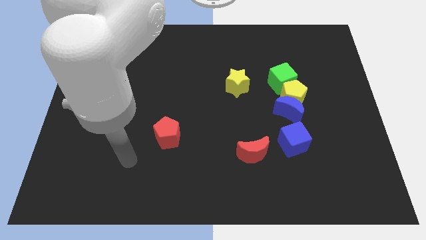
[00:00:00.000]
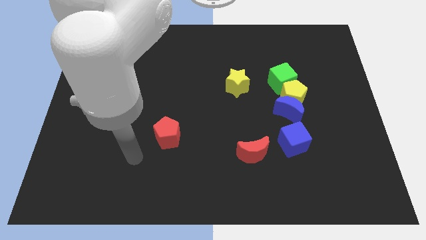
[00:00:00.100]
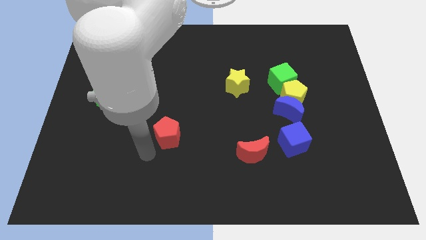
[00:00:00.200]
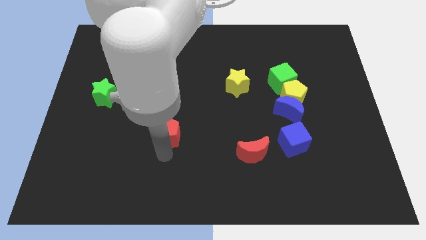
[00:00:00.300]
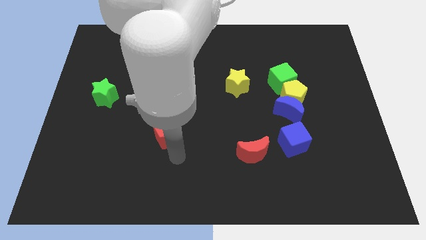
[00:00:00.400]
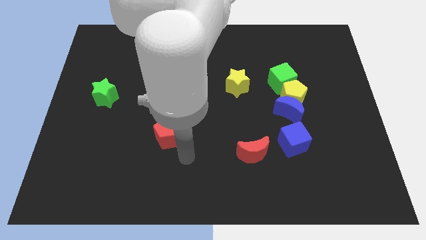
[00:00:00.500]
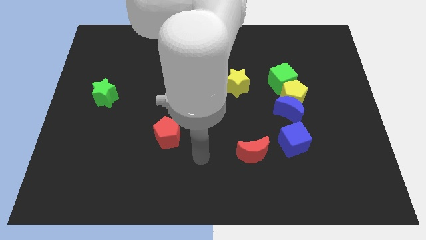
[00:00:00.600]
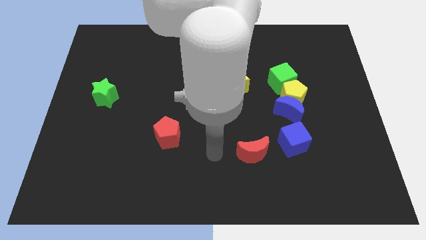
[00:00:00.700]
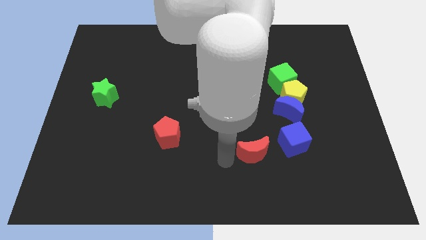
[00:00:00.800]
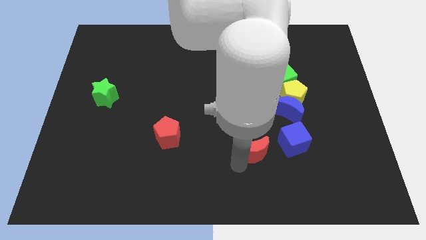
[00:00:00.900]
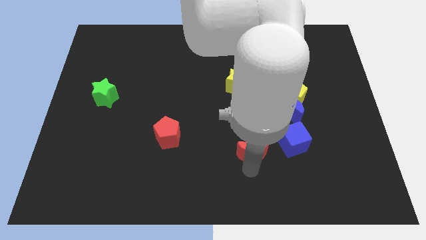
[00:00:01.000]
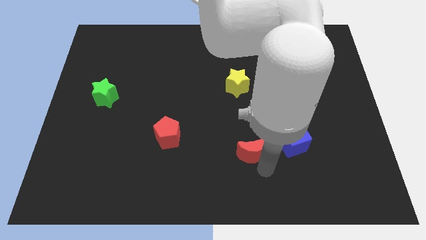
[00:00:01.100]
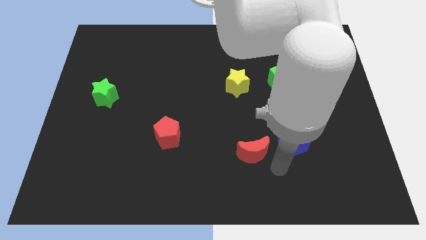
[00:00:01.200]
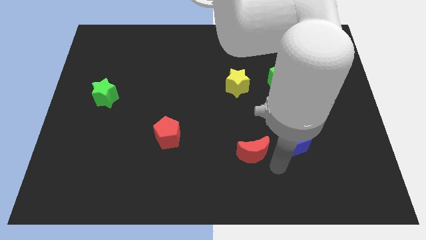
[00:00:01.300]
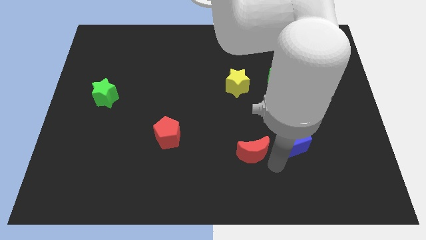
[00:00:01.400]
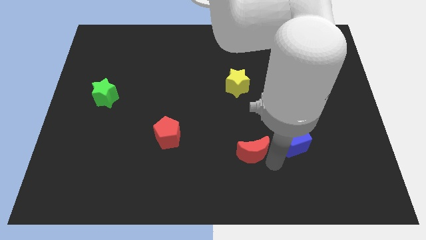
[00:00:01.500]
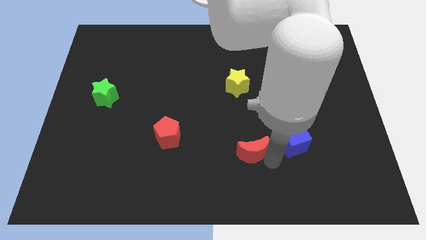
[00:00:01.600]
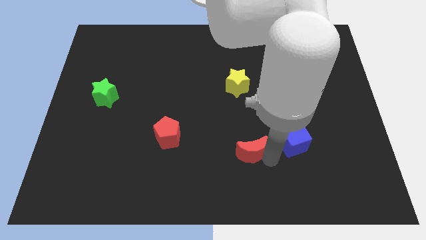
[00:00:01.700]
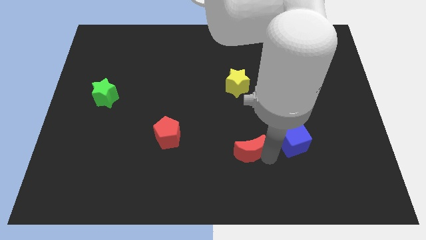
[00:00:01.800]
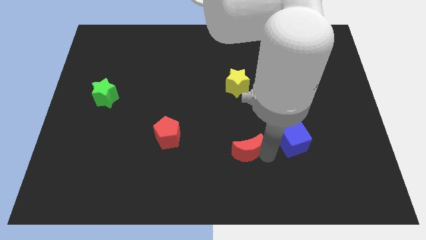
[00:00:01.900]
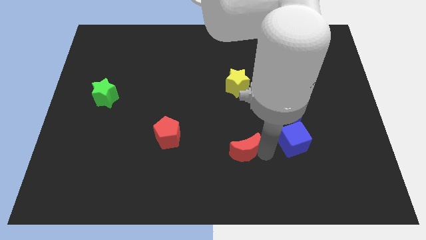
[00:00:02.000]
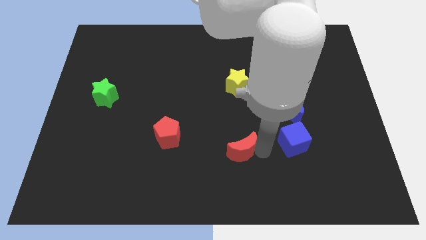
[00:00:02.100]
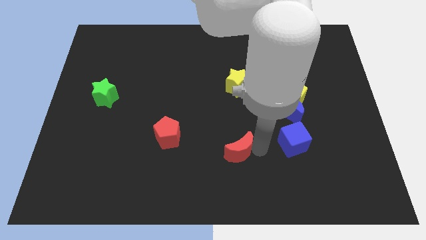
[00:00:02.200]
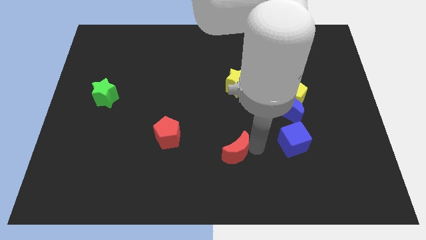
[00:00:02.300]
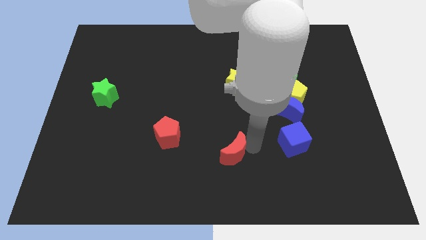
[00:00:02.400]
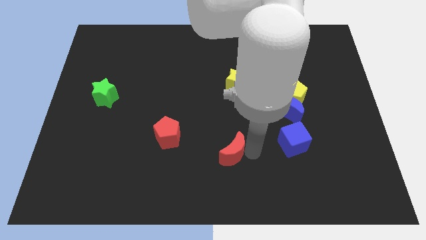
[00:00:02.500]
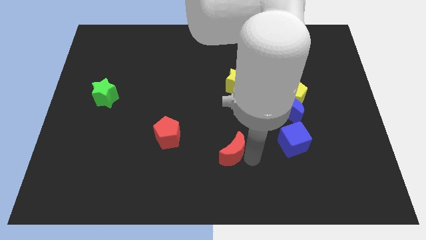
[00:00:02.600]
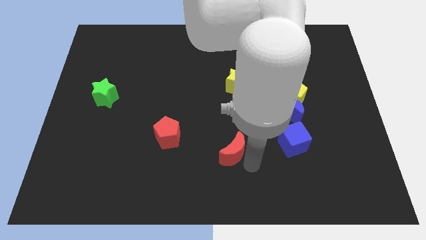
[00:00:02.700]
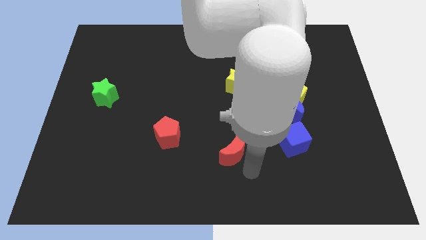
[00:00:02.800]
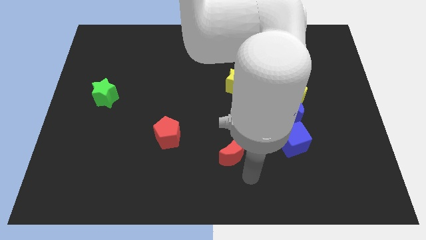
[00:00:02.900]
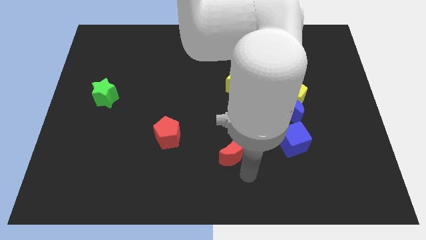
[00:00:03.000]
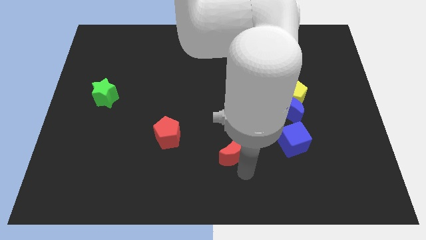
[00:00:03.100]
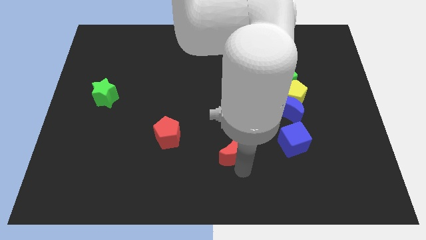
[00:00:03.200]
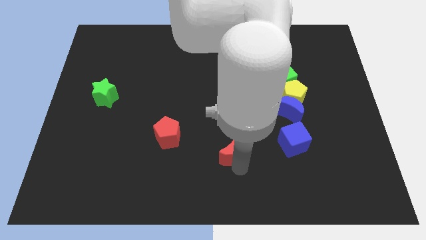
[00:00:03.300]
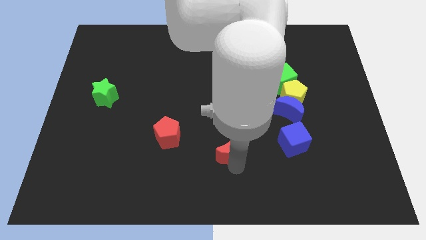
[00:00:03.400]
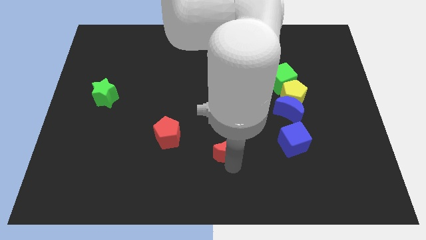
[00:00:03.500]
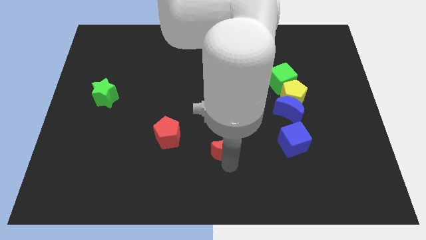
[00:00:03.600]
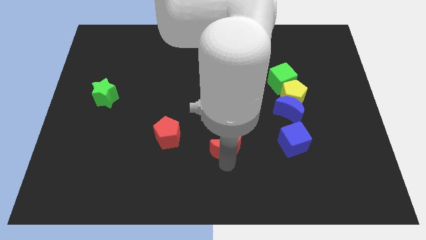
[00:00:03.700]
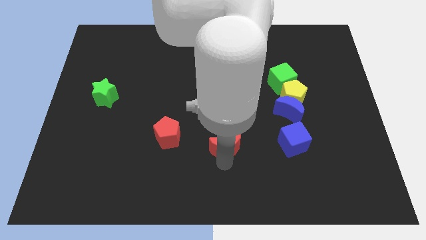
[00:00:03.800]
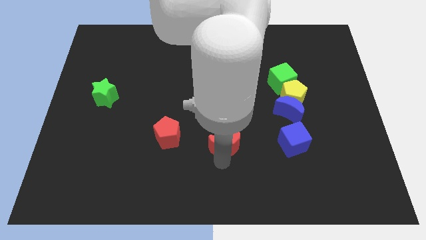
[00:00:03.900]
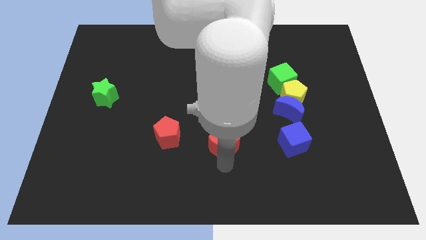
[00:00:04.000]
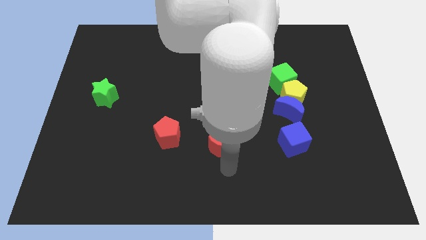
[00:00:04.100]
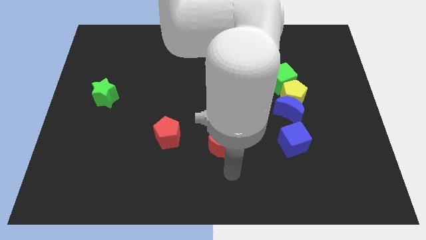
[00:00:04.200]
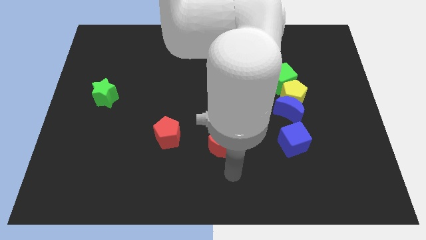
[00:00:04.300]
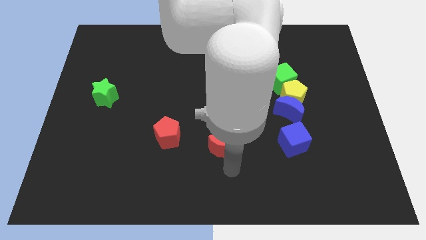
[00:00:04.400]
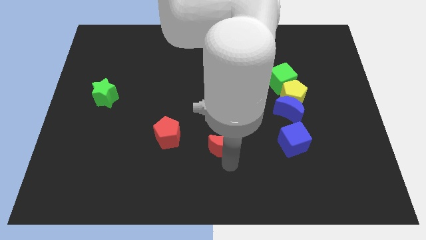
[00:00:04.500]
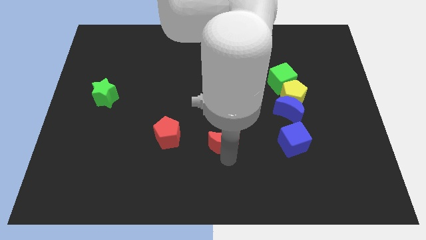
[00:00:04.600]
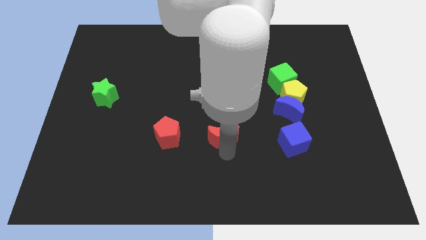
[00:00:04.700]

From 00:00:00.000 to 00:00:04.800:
push the red moon up and left diagonally a little bit

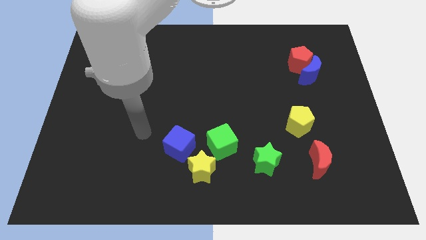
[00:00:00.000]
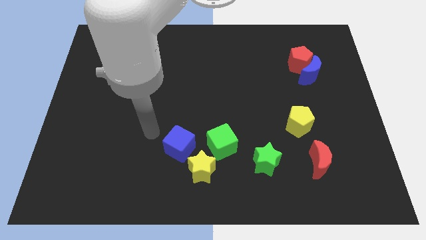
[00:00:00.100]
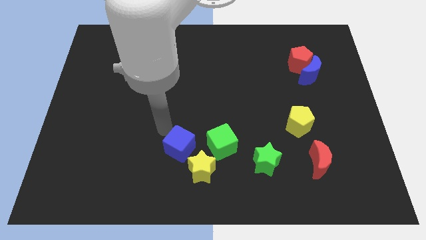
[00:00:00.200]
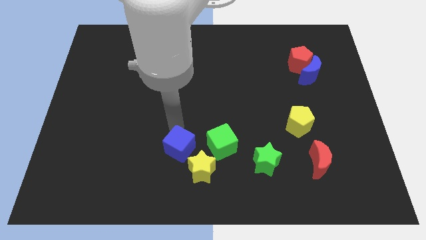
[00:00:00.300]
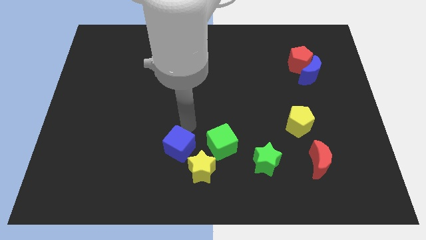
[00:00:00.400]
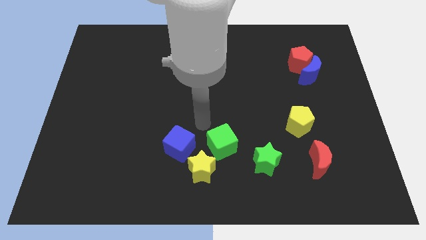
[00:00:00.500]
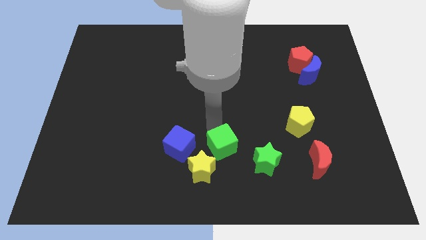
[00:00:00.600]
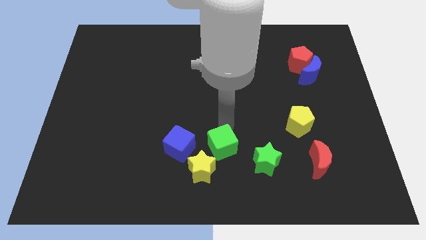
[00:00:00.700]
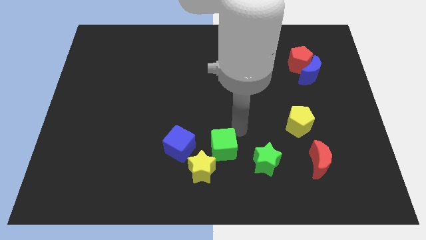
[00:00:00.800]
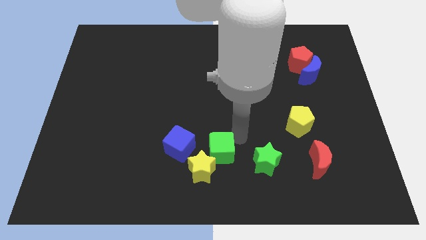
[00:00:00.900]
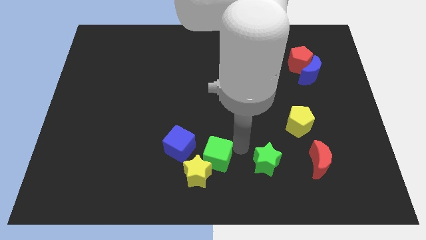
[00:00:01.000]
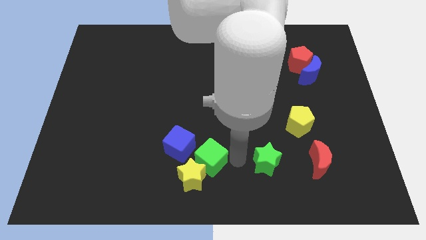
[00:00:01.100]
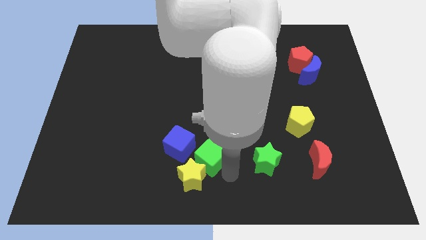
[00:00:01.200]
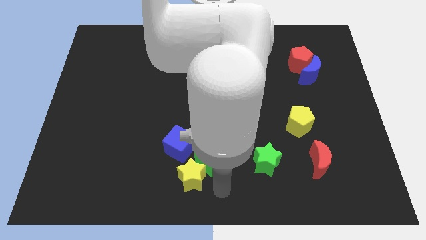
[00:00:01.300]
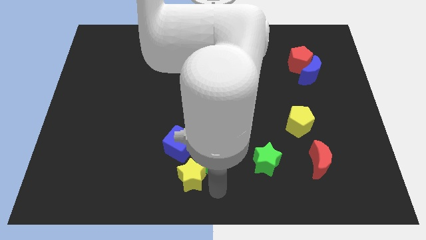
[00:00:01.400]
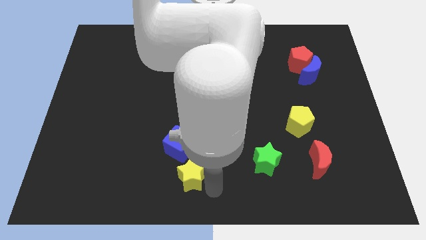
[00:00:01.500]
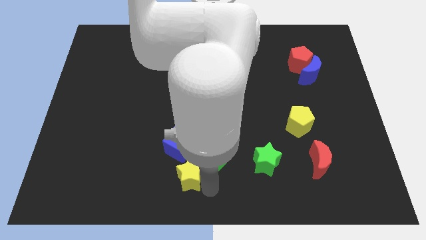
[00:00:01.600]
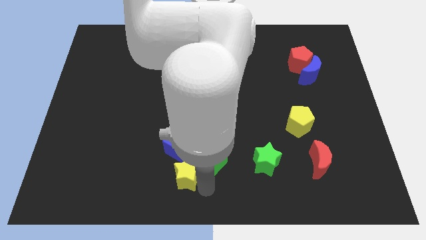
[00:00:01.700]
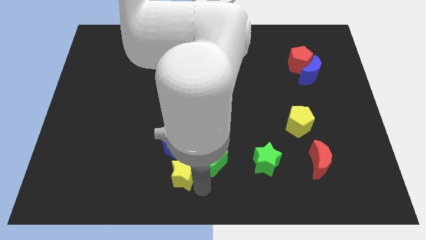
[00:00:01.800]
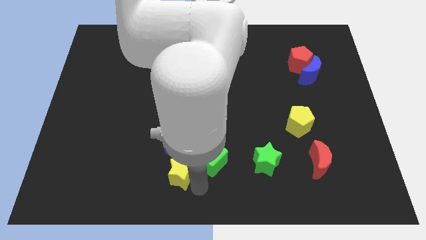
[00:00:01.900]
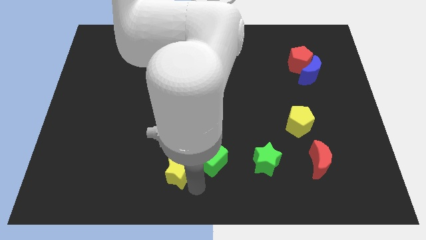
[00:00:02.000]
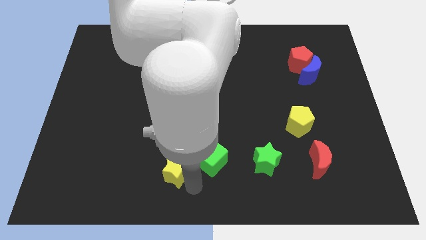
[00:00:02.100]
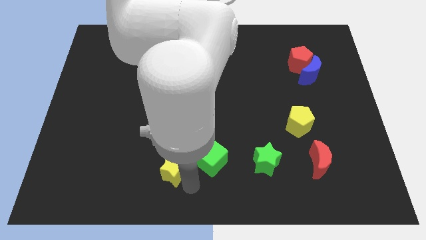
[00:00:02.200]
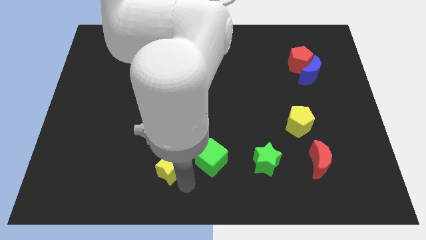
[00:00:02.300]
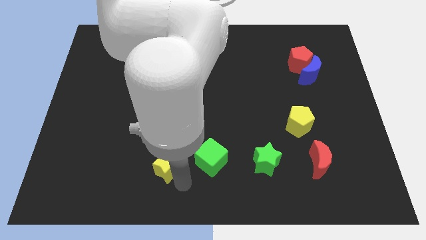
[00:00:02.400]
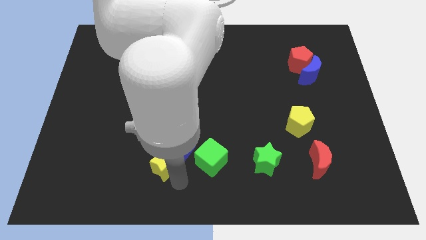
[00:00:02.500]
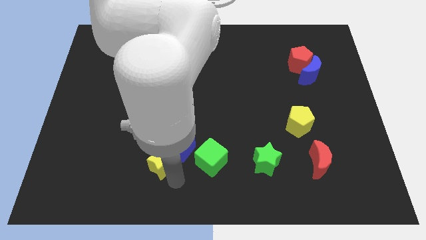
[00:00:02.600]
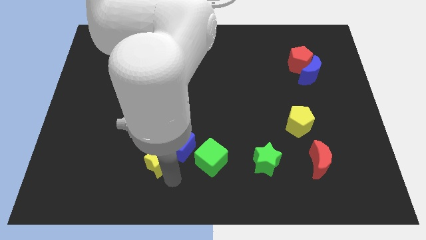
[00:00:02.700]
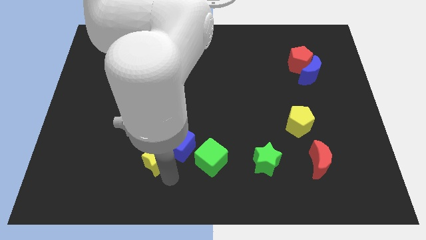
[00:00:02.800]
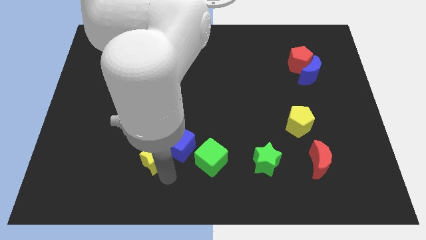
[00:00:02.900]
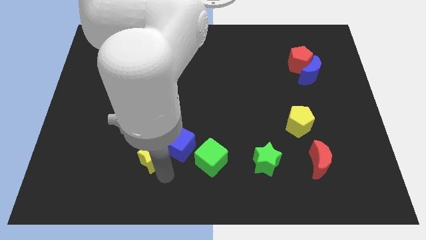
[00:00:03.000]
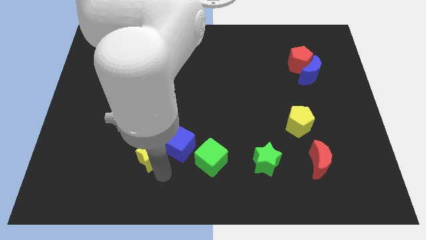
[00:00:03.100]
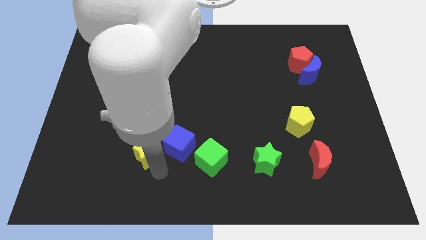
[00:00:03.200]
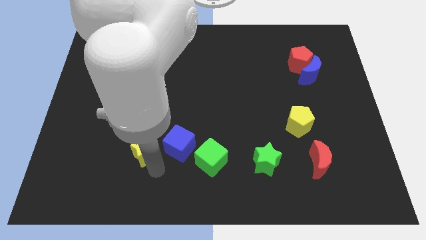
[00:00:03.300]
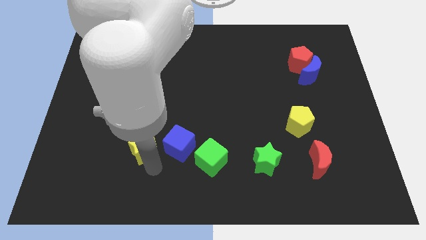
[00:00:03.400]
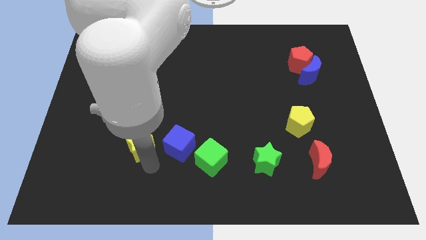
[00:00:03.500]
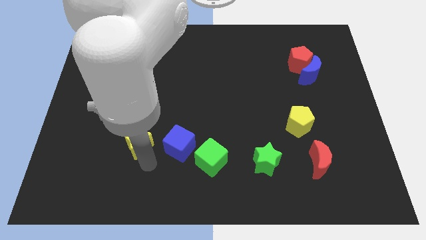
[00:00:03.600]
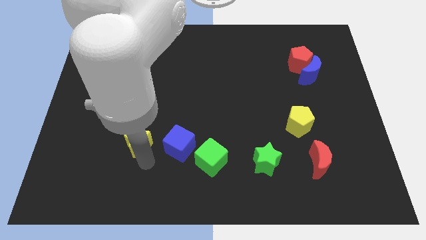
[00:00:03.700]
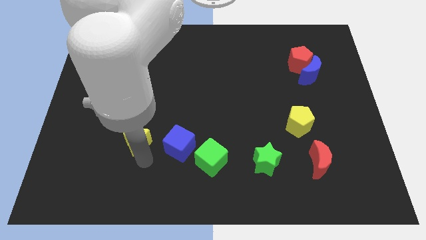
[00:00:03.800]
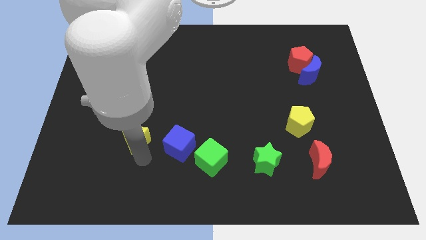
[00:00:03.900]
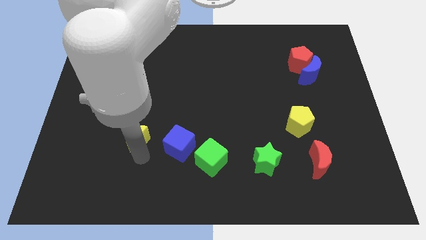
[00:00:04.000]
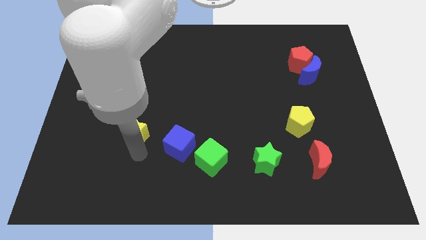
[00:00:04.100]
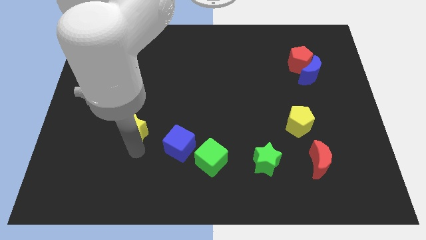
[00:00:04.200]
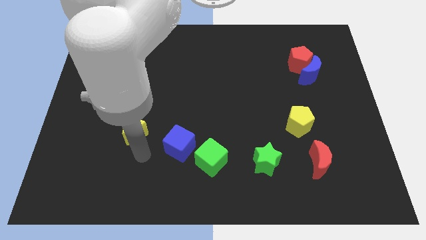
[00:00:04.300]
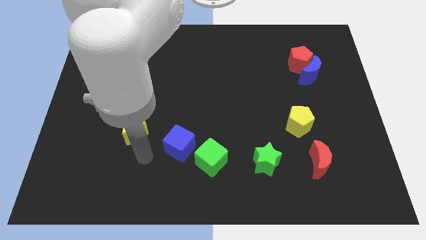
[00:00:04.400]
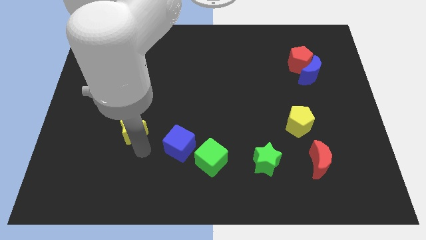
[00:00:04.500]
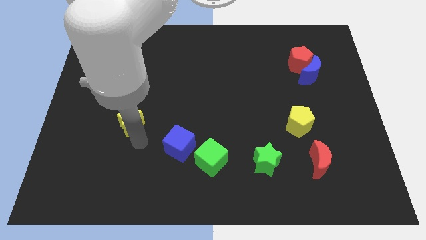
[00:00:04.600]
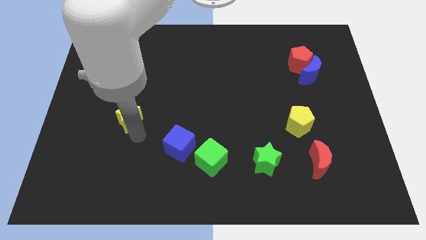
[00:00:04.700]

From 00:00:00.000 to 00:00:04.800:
push the yellow star upwards and to the left diagonally
